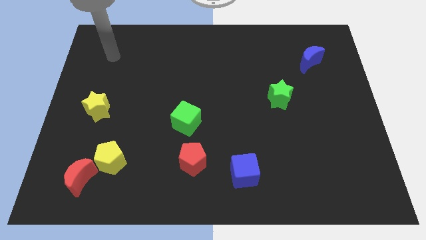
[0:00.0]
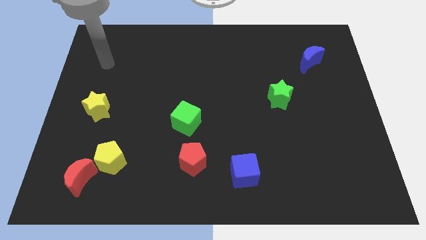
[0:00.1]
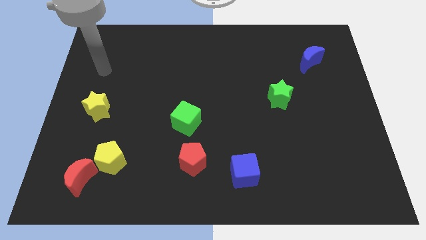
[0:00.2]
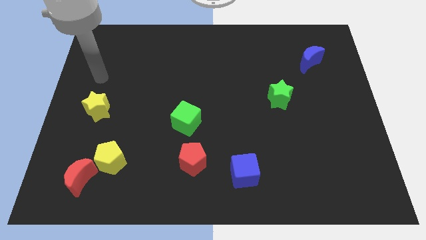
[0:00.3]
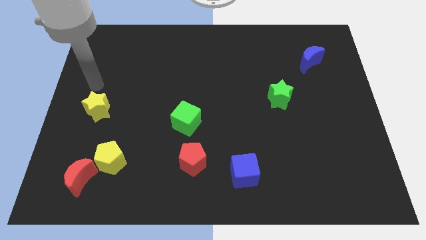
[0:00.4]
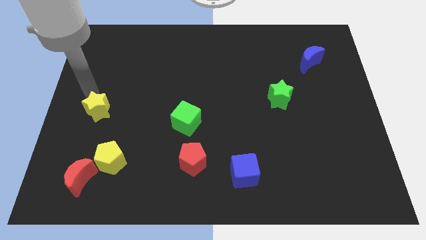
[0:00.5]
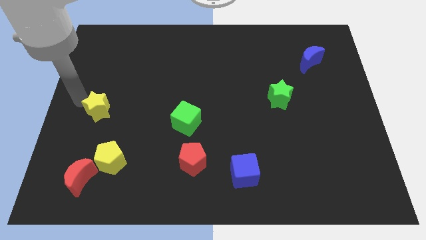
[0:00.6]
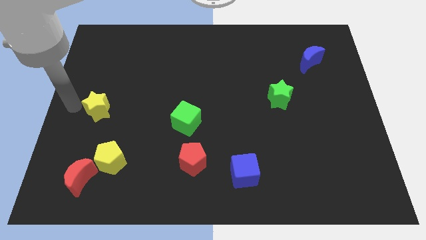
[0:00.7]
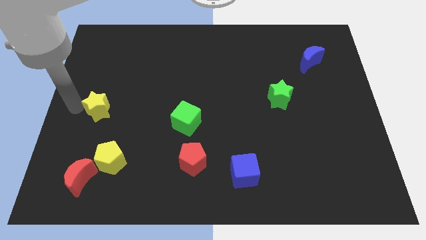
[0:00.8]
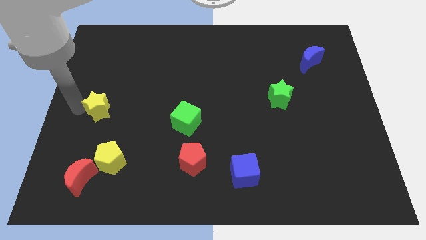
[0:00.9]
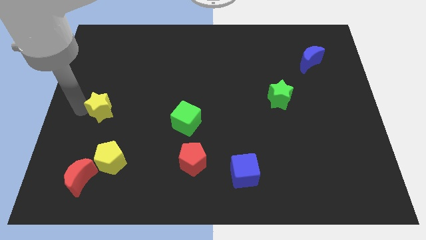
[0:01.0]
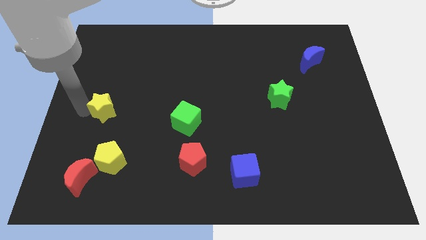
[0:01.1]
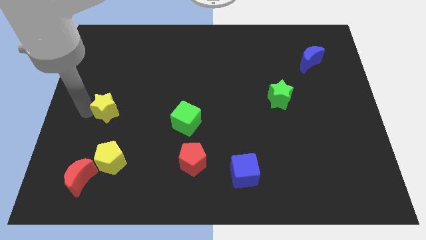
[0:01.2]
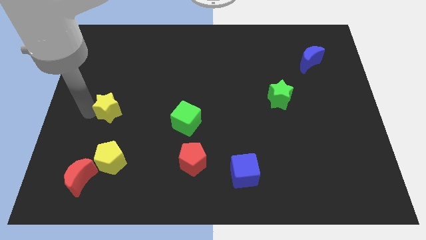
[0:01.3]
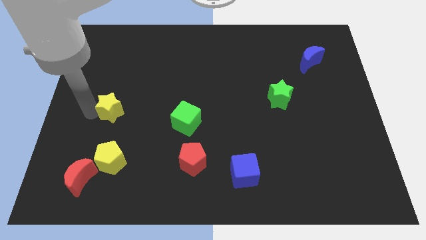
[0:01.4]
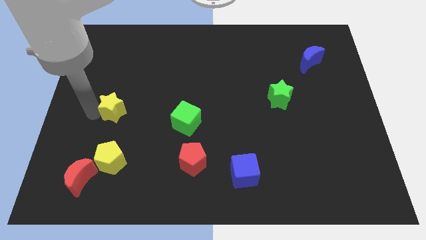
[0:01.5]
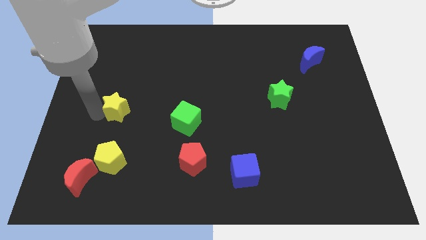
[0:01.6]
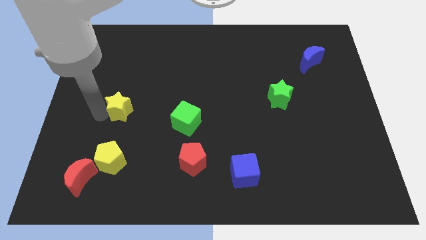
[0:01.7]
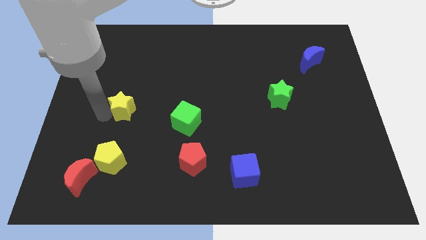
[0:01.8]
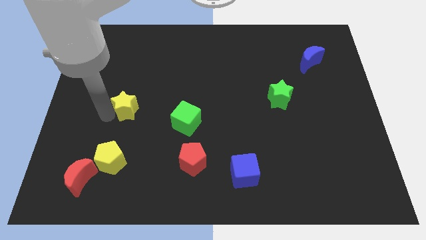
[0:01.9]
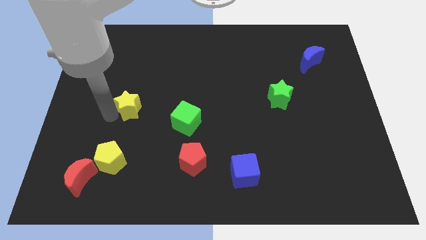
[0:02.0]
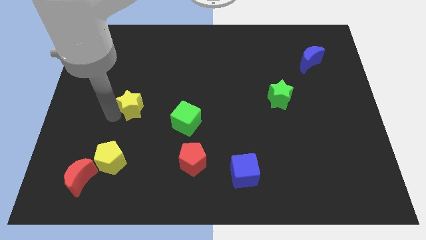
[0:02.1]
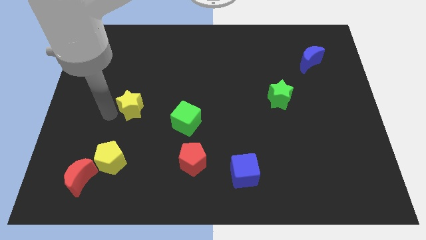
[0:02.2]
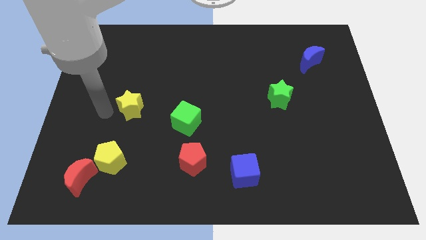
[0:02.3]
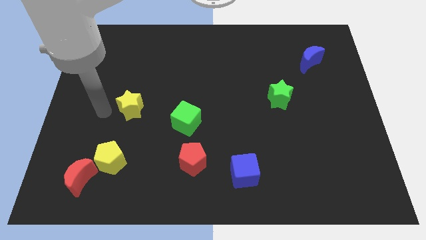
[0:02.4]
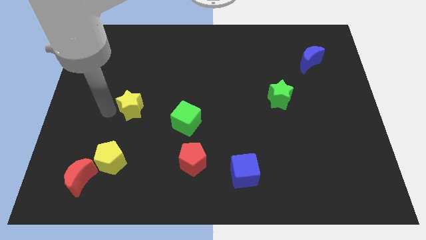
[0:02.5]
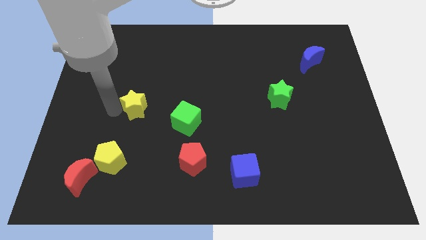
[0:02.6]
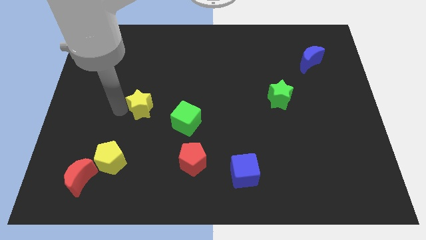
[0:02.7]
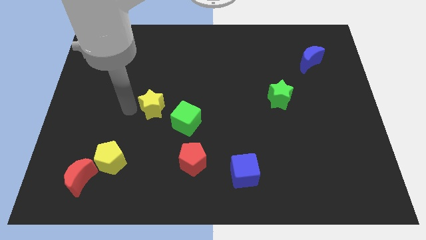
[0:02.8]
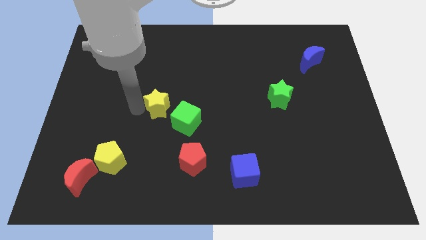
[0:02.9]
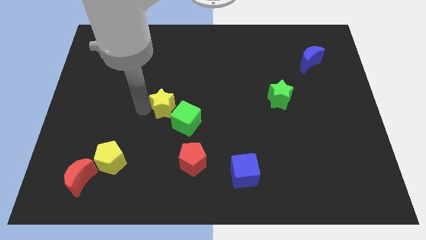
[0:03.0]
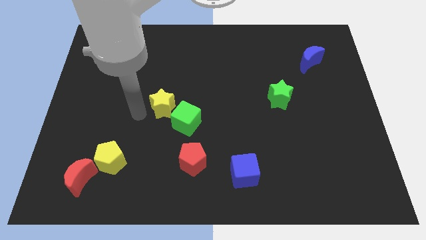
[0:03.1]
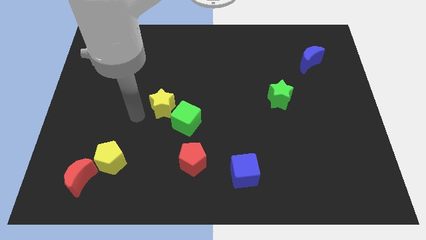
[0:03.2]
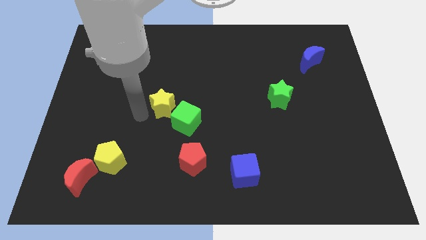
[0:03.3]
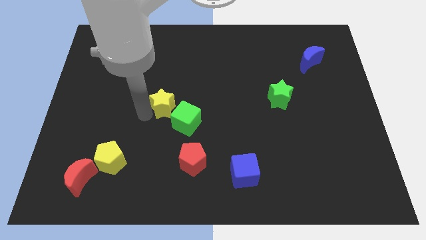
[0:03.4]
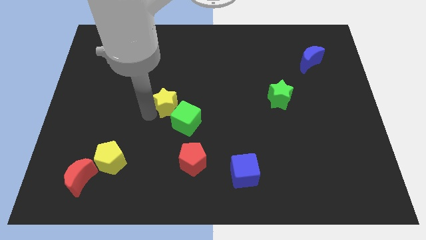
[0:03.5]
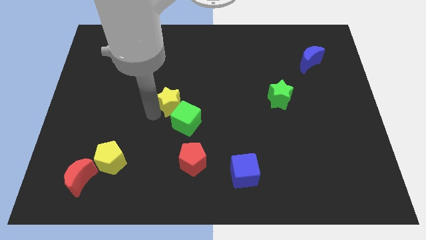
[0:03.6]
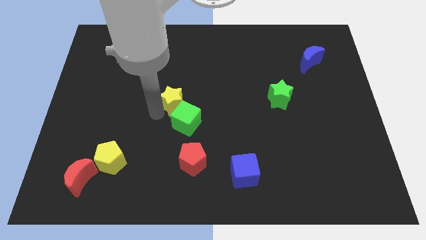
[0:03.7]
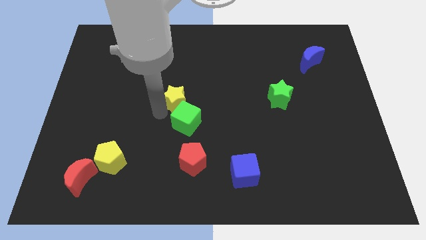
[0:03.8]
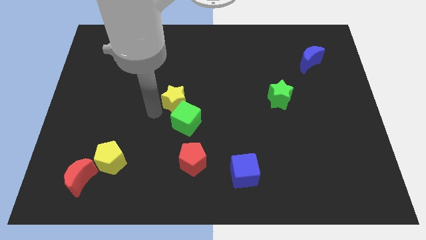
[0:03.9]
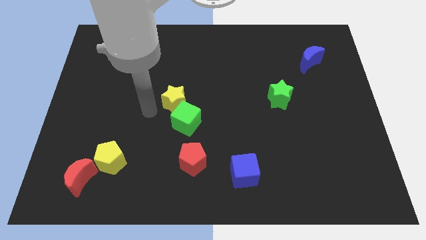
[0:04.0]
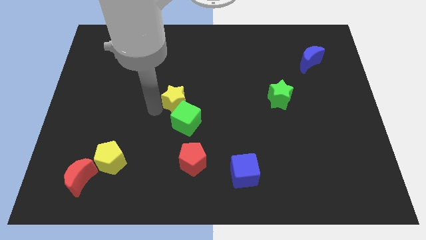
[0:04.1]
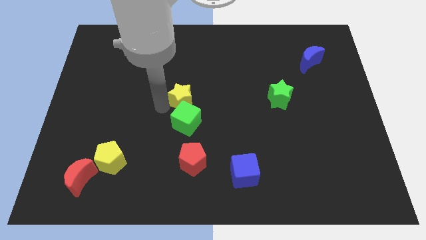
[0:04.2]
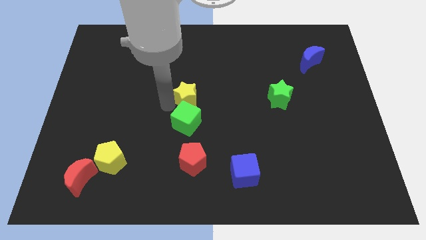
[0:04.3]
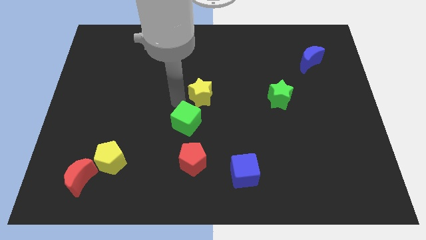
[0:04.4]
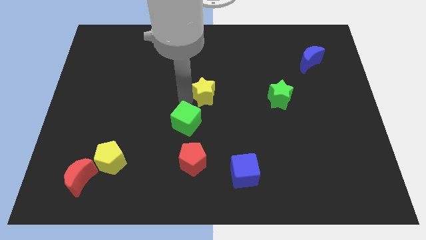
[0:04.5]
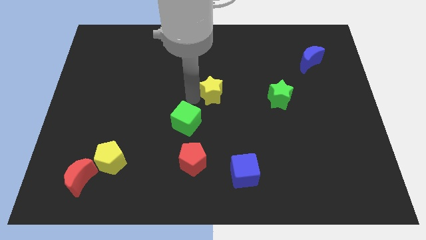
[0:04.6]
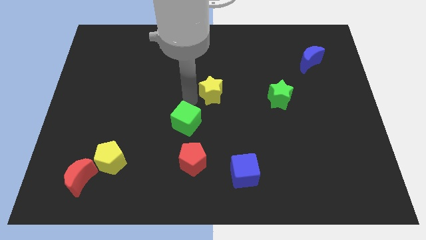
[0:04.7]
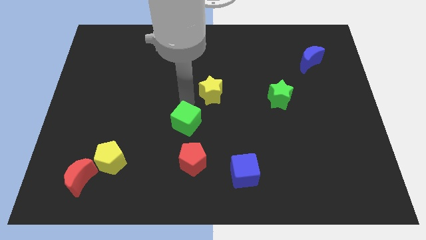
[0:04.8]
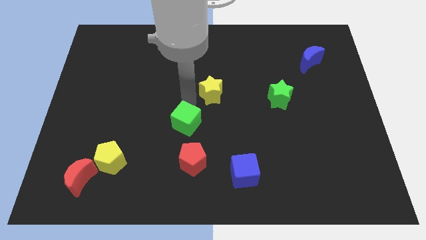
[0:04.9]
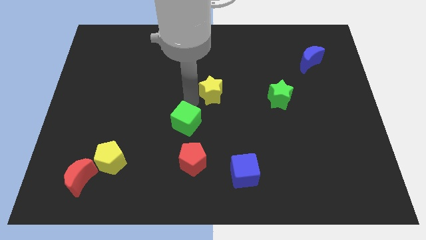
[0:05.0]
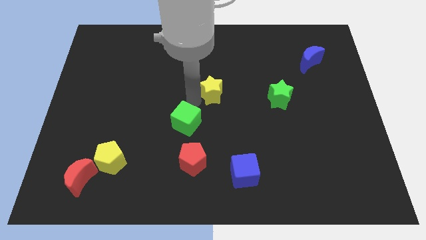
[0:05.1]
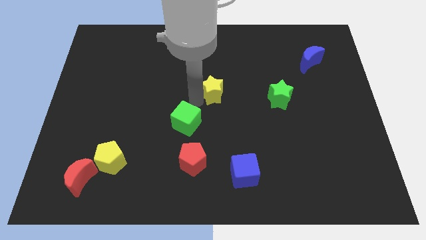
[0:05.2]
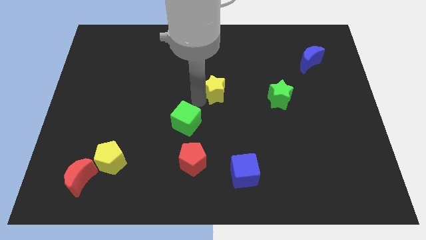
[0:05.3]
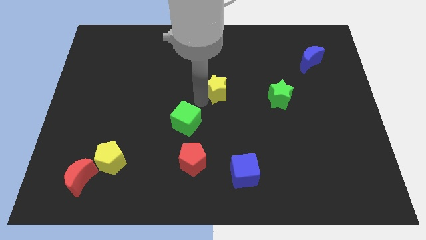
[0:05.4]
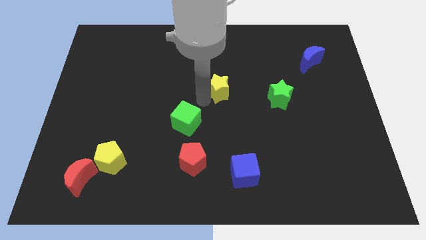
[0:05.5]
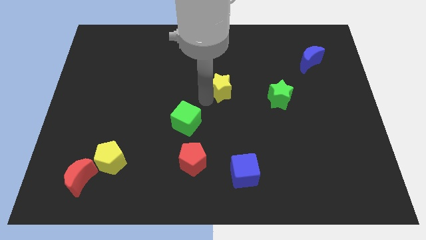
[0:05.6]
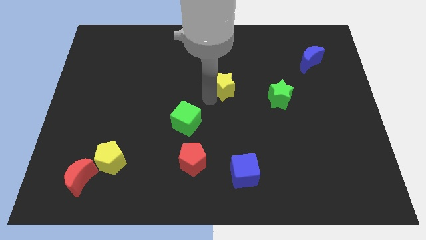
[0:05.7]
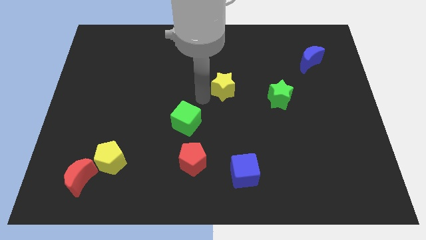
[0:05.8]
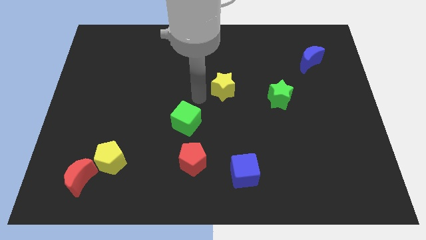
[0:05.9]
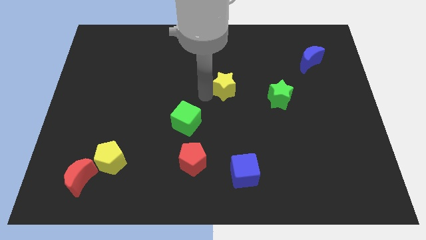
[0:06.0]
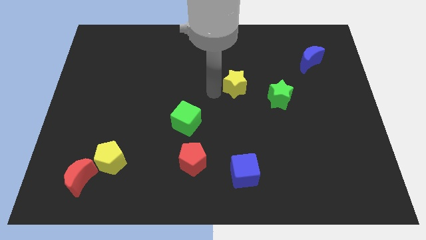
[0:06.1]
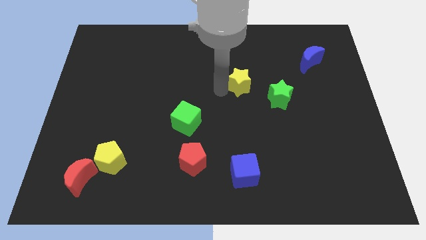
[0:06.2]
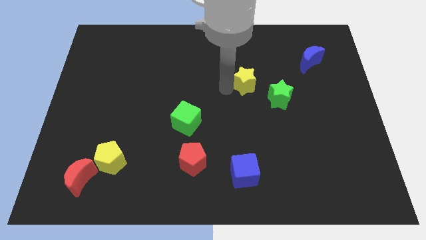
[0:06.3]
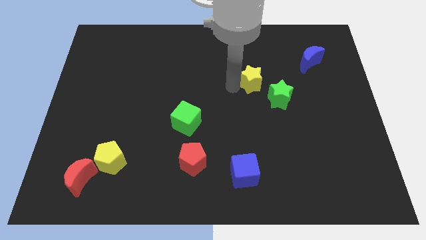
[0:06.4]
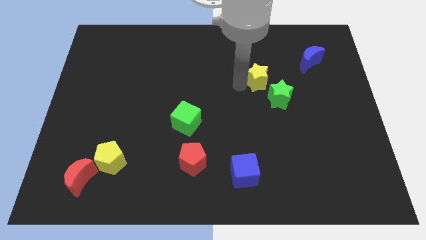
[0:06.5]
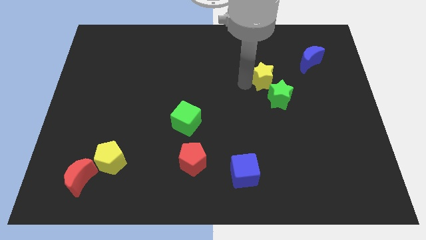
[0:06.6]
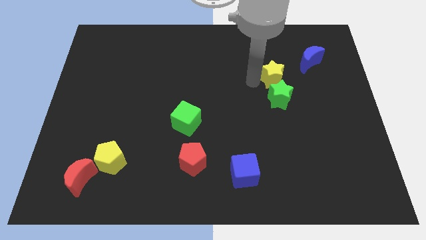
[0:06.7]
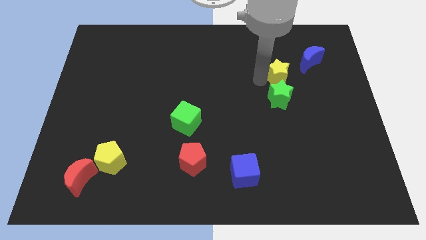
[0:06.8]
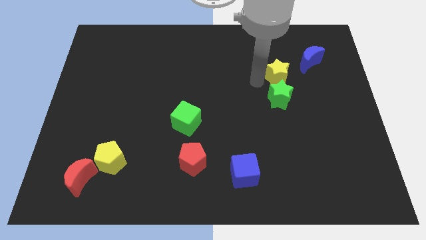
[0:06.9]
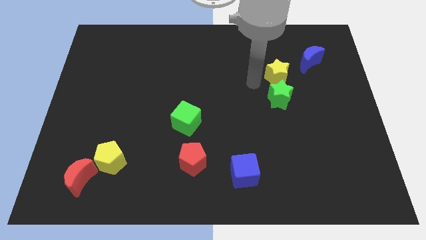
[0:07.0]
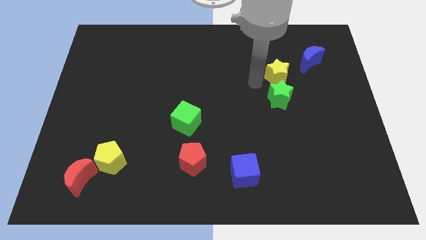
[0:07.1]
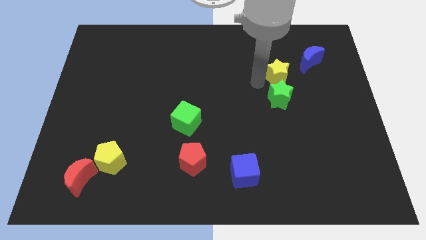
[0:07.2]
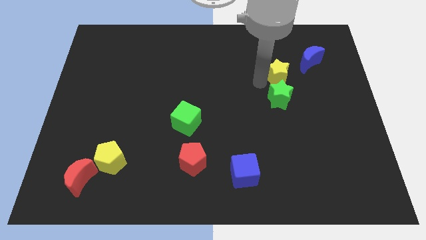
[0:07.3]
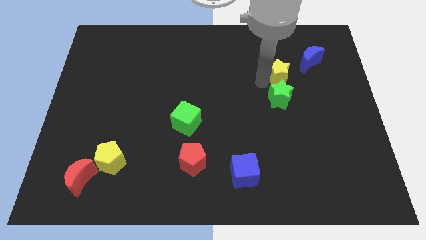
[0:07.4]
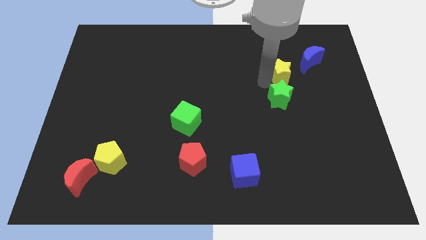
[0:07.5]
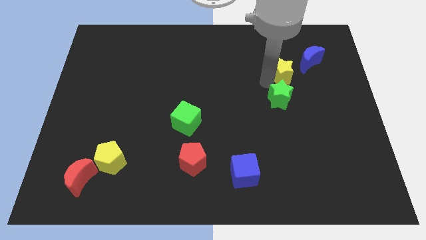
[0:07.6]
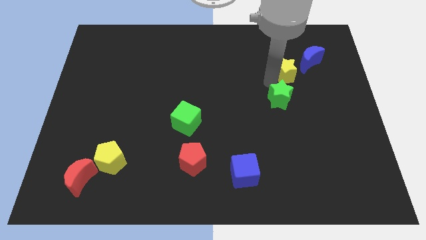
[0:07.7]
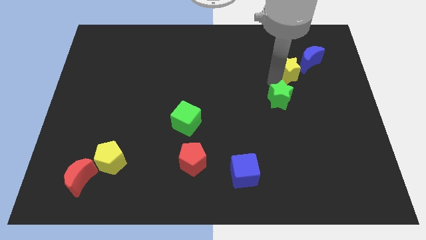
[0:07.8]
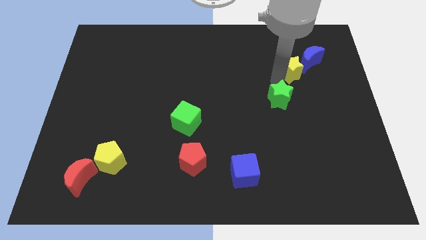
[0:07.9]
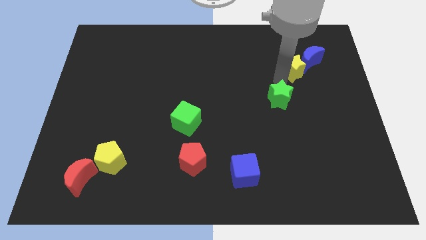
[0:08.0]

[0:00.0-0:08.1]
push the yellow star to the blue moon
